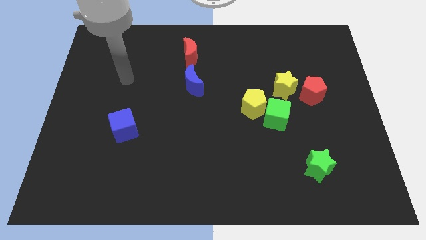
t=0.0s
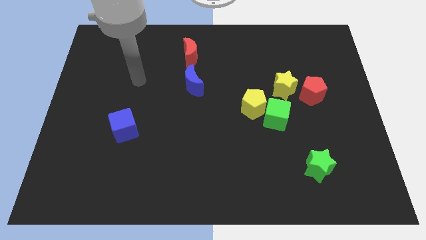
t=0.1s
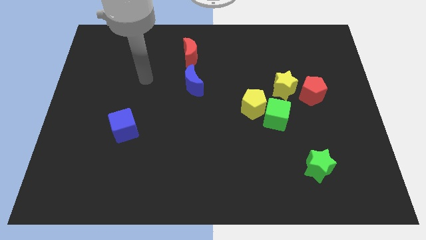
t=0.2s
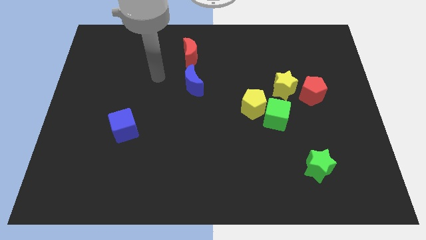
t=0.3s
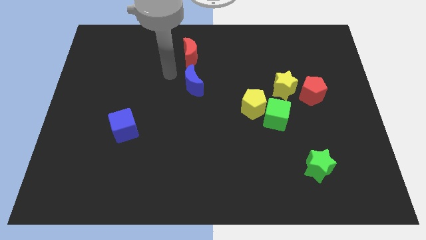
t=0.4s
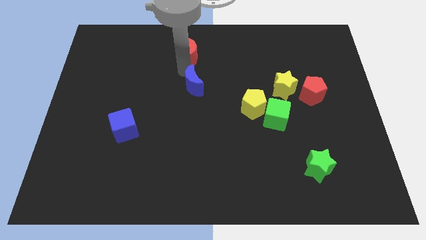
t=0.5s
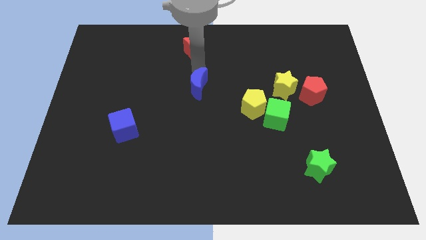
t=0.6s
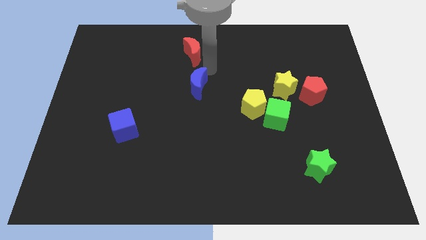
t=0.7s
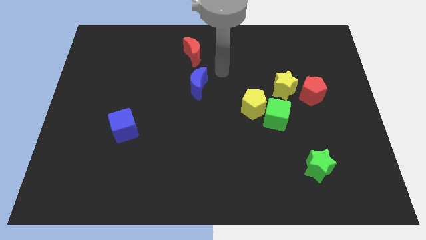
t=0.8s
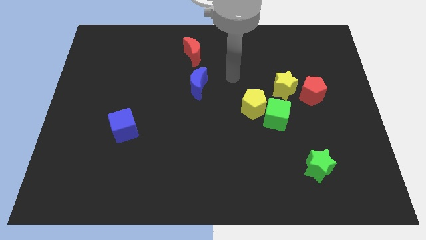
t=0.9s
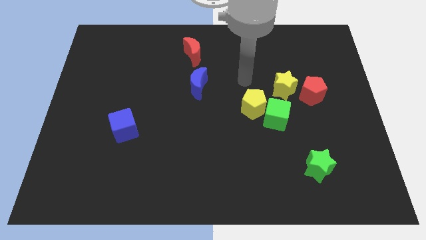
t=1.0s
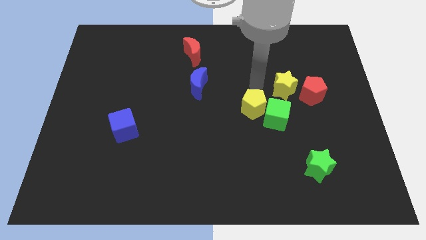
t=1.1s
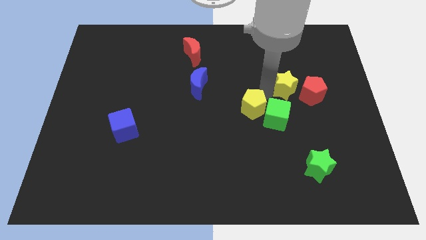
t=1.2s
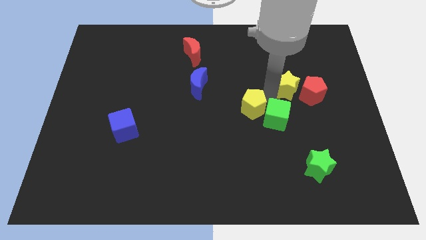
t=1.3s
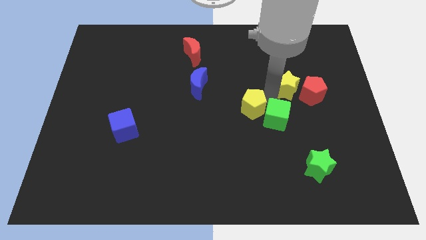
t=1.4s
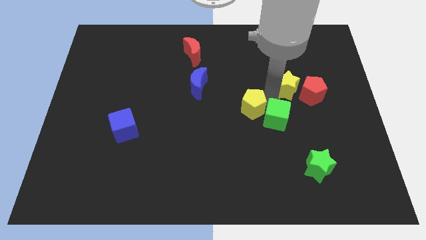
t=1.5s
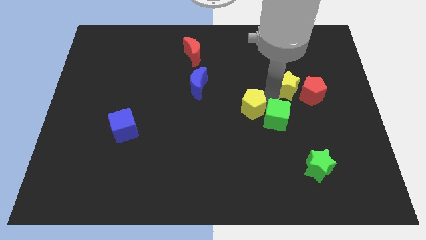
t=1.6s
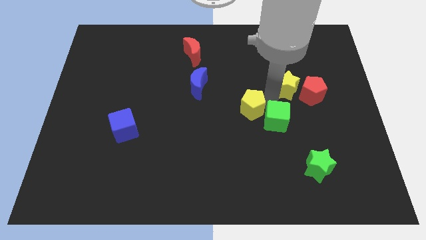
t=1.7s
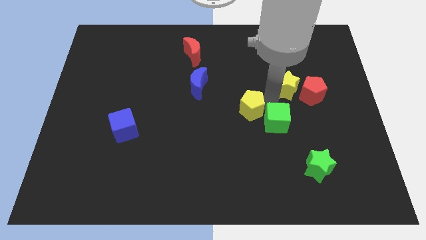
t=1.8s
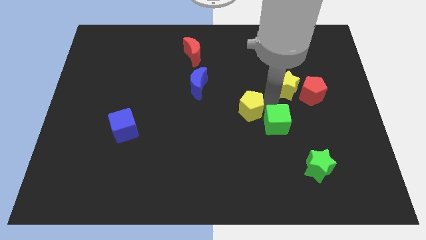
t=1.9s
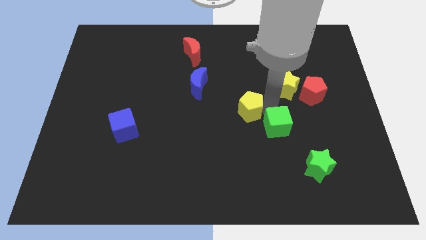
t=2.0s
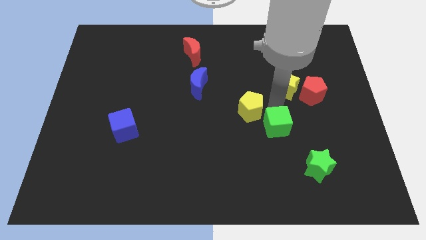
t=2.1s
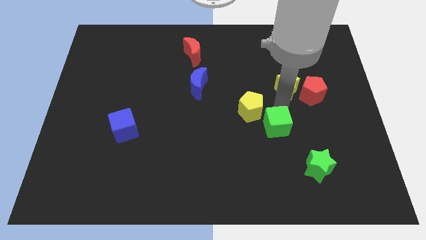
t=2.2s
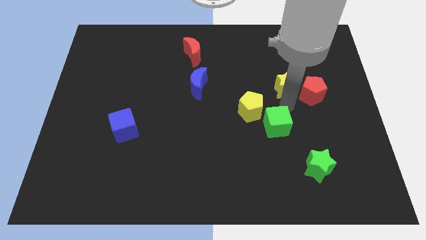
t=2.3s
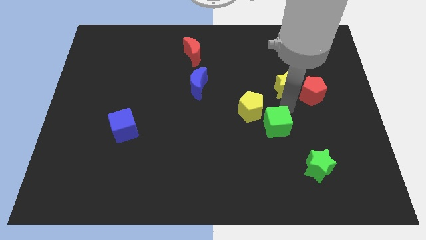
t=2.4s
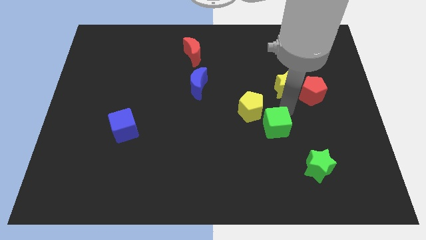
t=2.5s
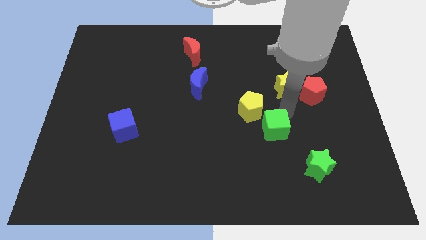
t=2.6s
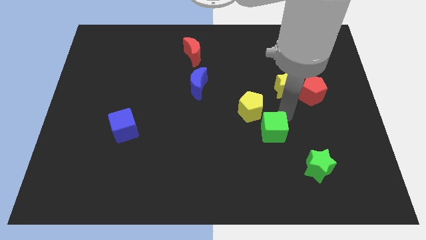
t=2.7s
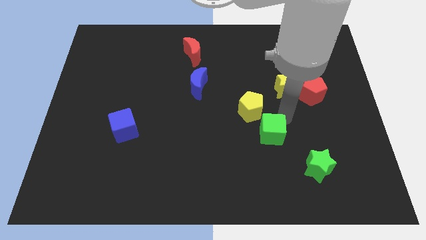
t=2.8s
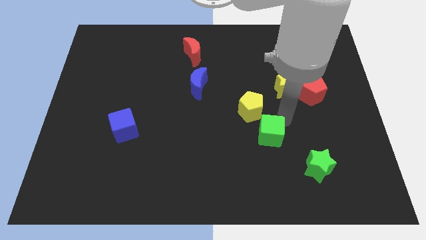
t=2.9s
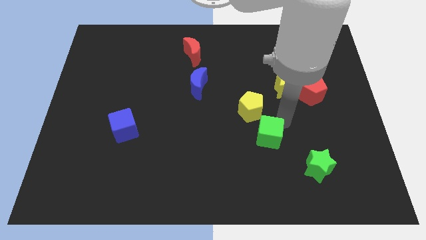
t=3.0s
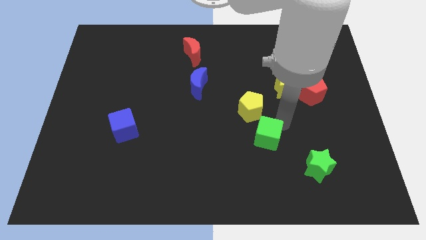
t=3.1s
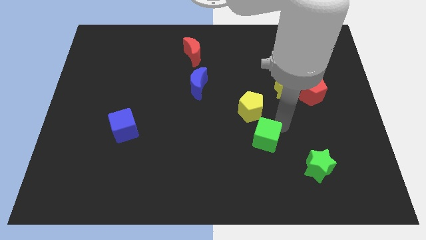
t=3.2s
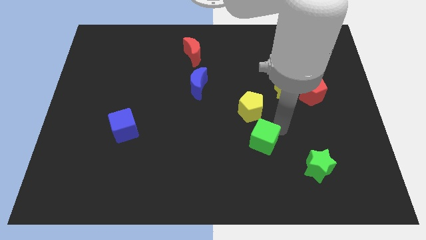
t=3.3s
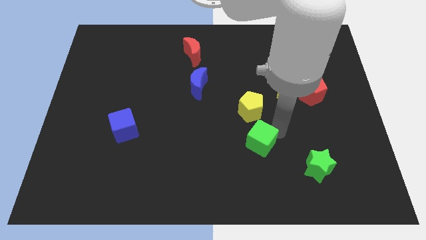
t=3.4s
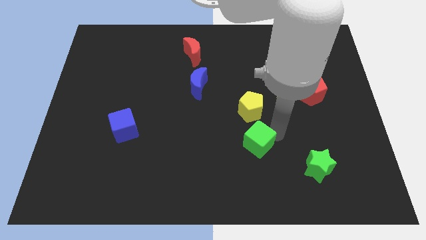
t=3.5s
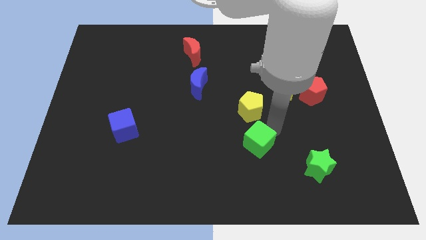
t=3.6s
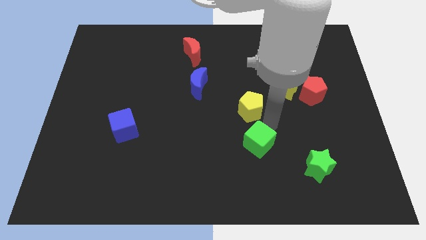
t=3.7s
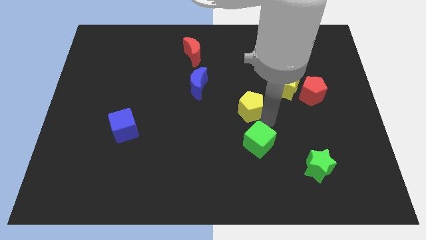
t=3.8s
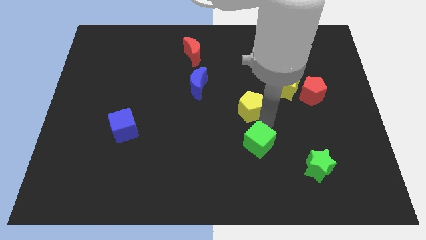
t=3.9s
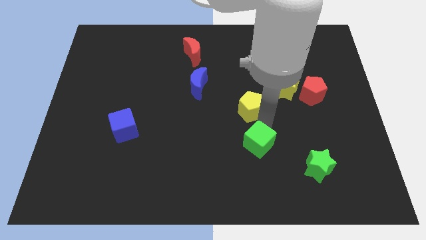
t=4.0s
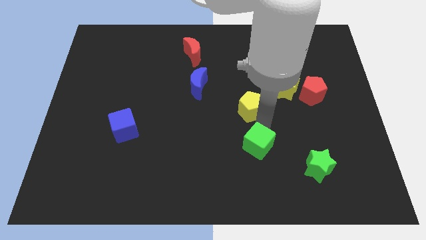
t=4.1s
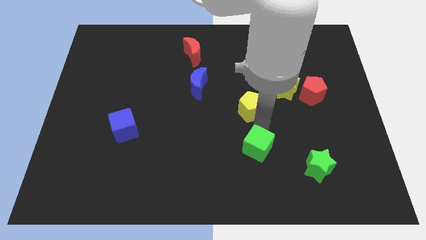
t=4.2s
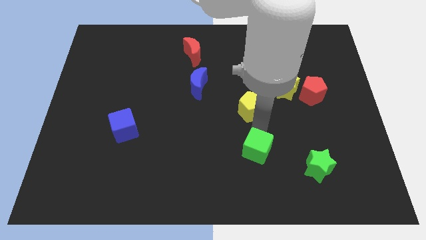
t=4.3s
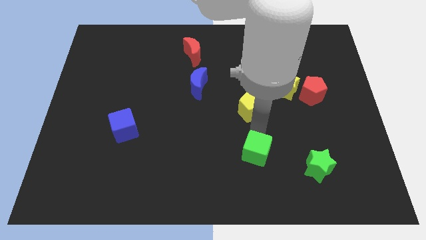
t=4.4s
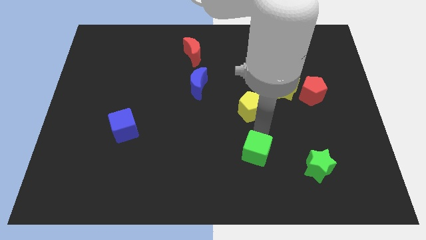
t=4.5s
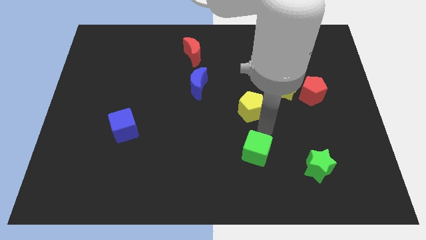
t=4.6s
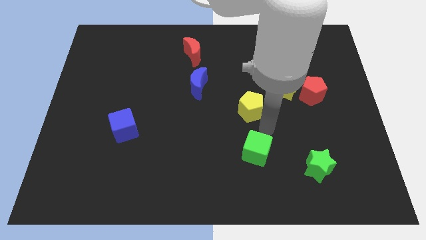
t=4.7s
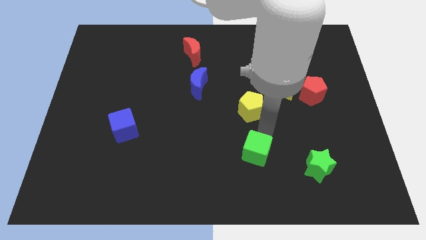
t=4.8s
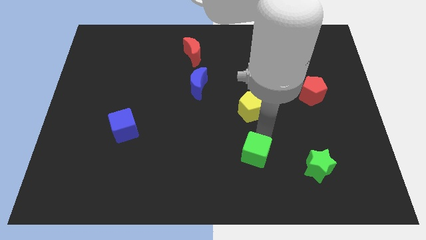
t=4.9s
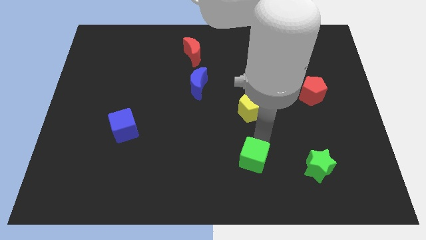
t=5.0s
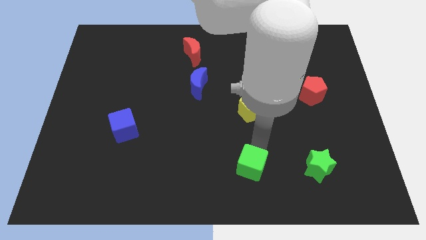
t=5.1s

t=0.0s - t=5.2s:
slide the green cube to the bottom

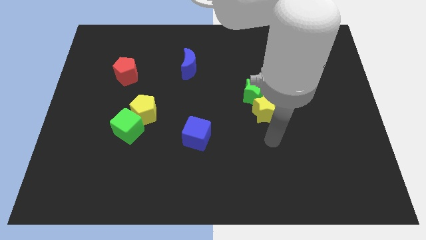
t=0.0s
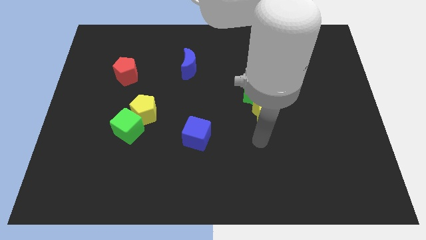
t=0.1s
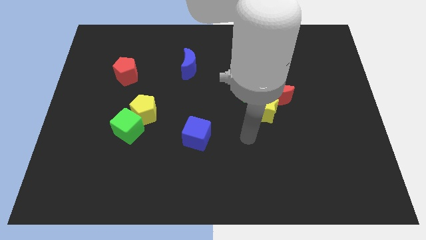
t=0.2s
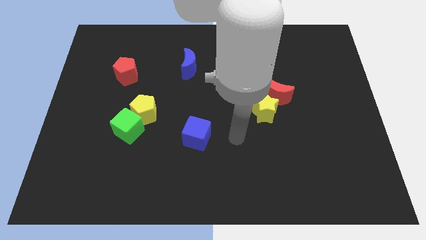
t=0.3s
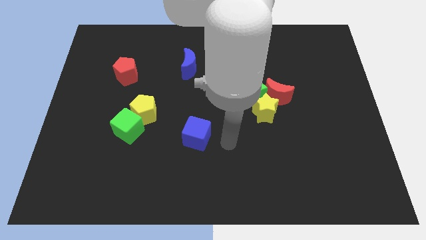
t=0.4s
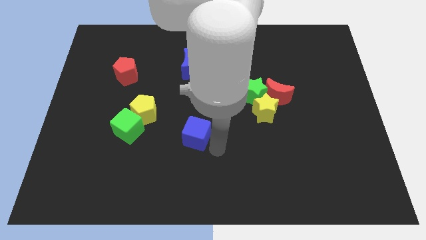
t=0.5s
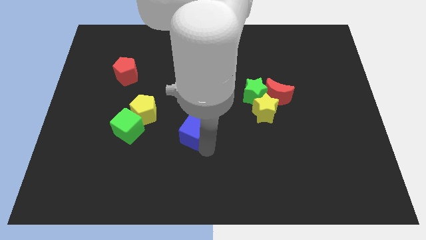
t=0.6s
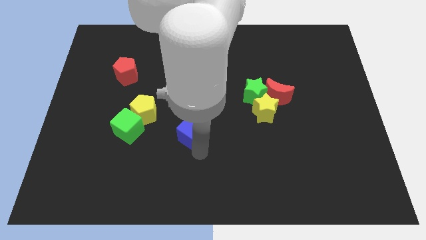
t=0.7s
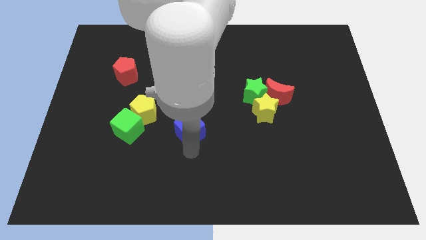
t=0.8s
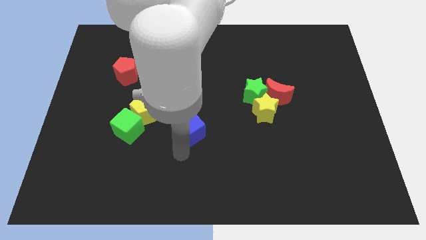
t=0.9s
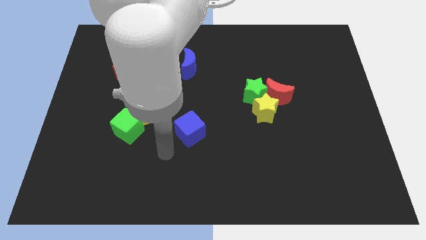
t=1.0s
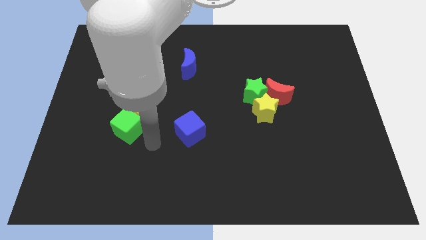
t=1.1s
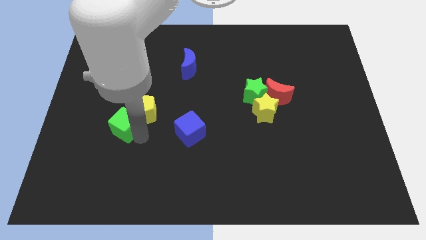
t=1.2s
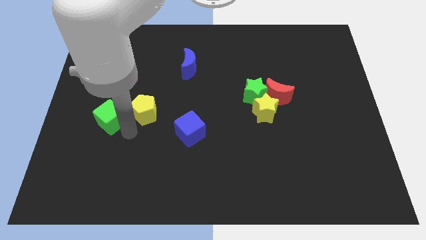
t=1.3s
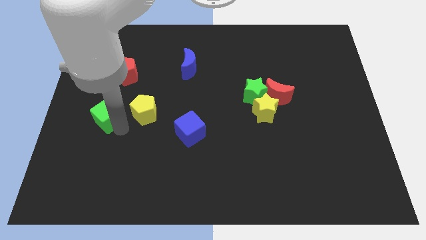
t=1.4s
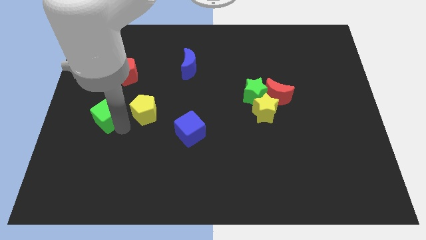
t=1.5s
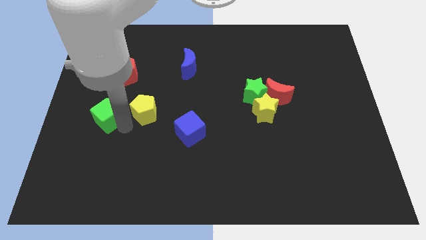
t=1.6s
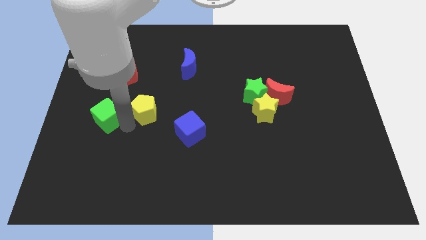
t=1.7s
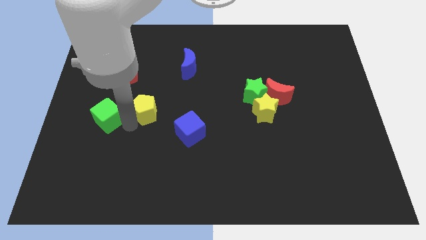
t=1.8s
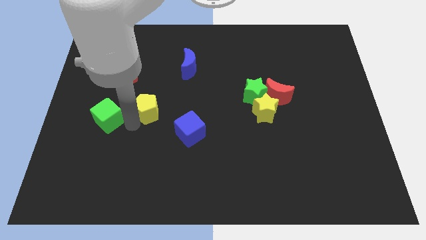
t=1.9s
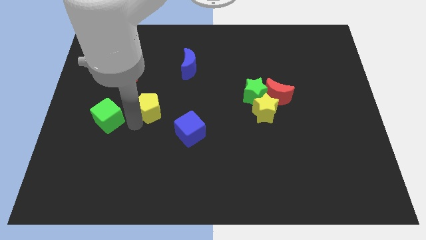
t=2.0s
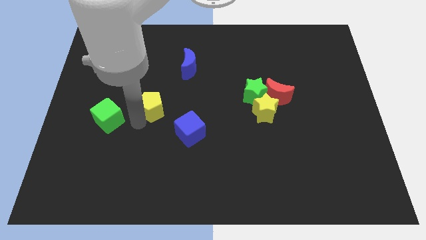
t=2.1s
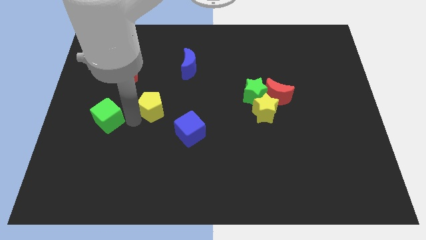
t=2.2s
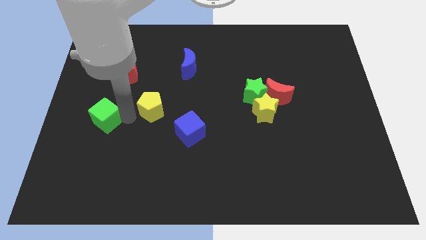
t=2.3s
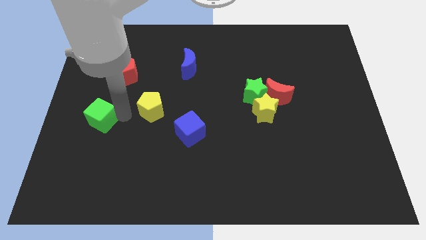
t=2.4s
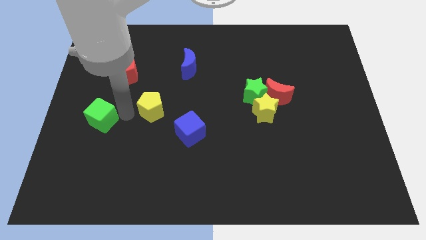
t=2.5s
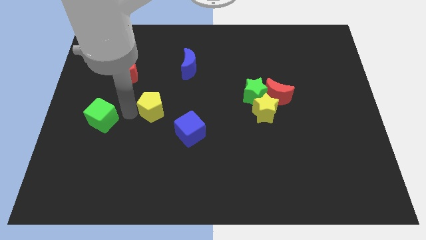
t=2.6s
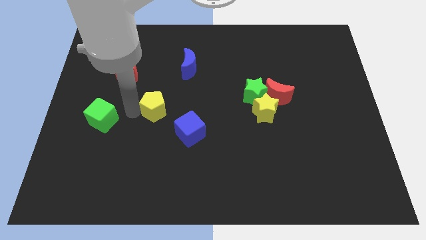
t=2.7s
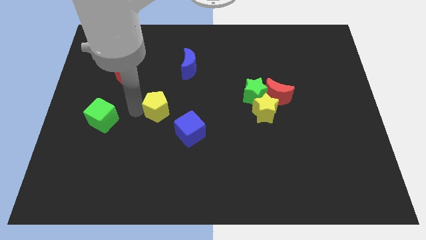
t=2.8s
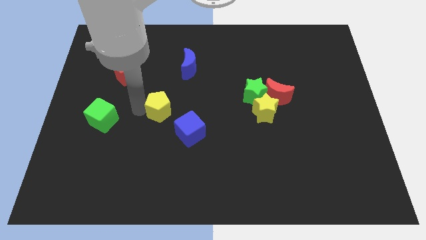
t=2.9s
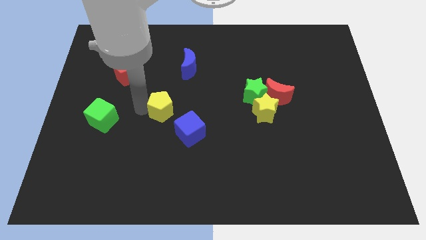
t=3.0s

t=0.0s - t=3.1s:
slide the yellow pentagon to the center of the board
